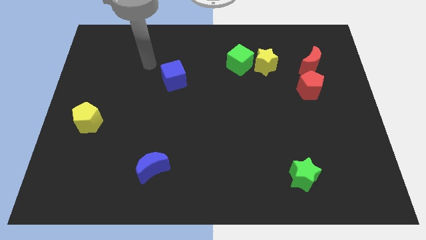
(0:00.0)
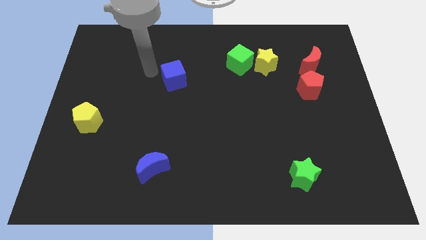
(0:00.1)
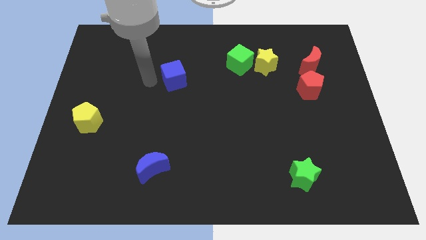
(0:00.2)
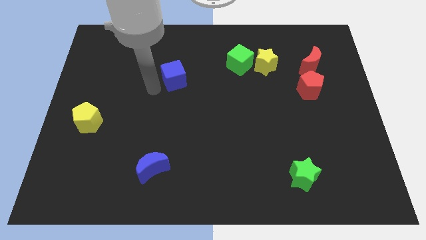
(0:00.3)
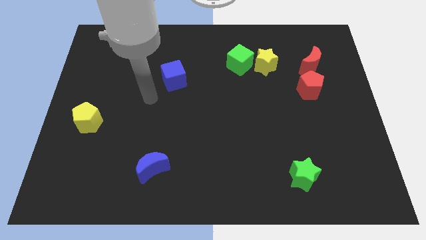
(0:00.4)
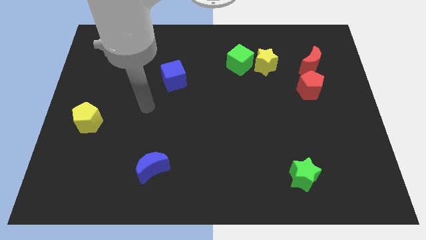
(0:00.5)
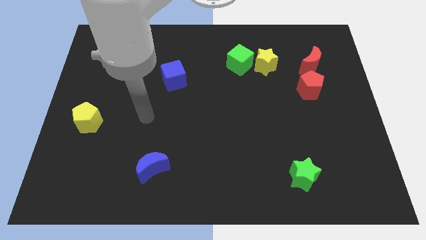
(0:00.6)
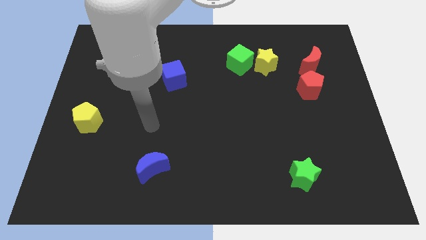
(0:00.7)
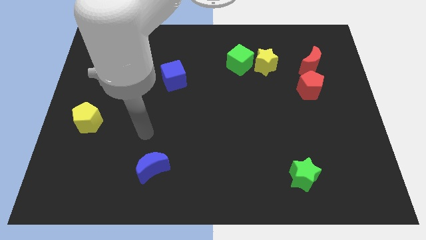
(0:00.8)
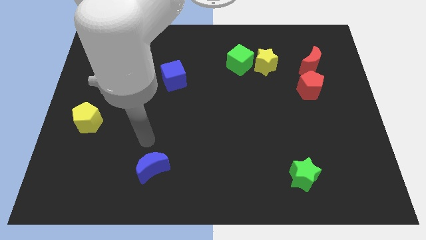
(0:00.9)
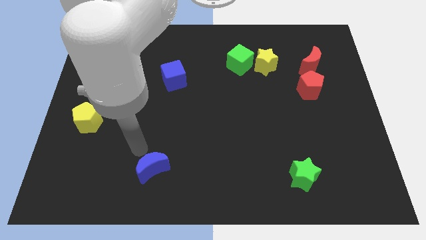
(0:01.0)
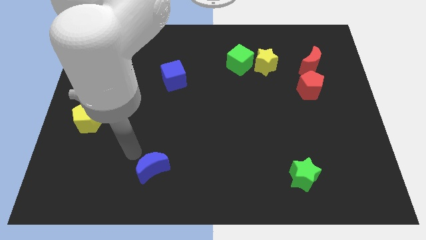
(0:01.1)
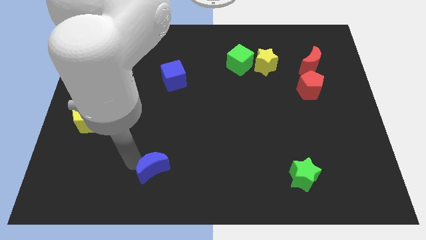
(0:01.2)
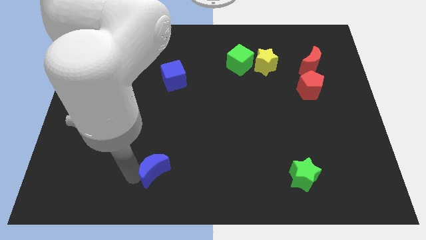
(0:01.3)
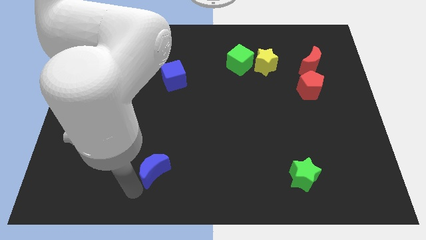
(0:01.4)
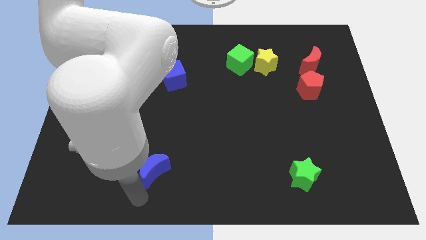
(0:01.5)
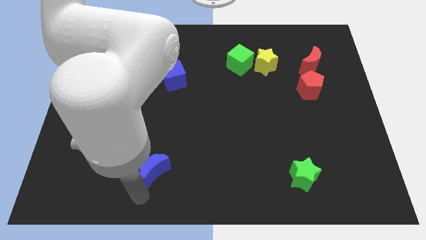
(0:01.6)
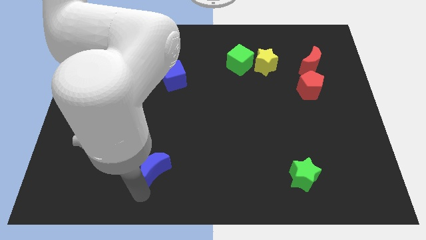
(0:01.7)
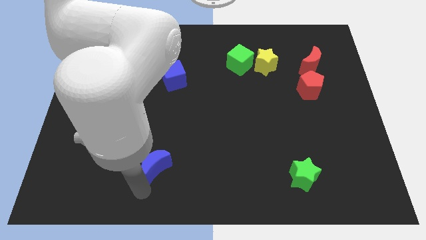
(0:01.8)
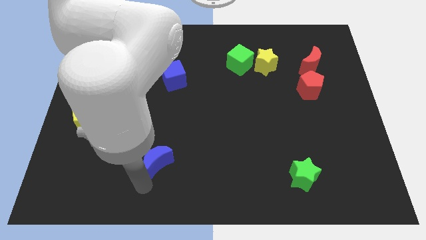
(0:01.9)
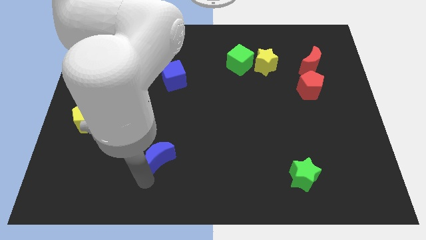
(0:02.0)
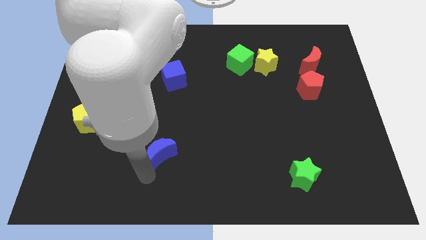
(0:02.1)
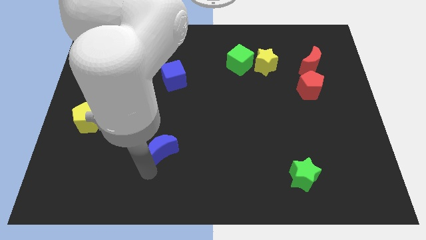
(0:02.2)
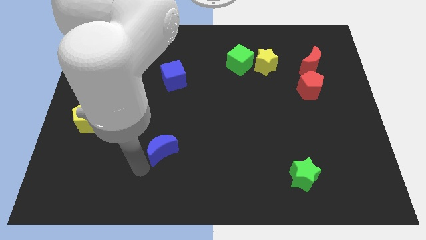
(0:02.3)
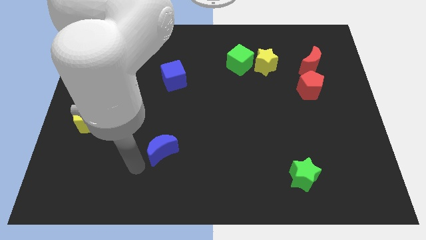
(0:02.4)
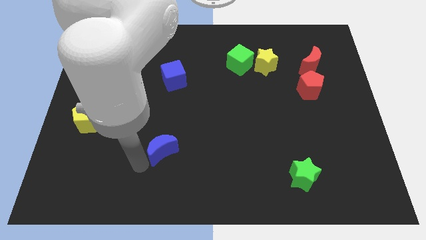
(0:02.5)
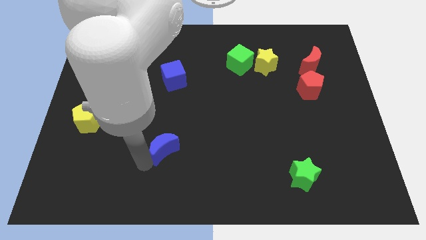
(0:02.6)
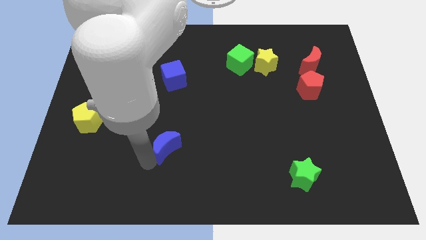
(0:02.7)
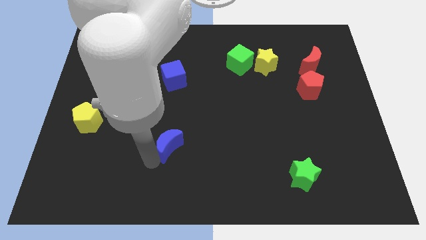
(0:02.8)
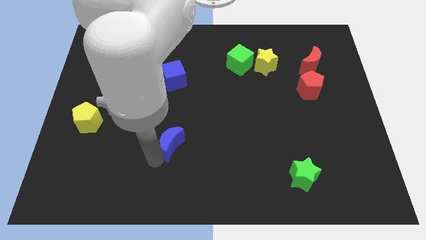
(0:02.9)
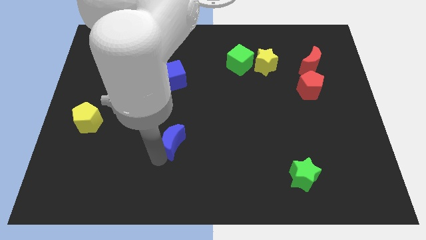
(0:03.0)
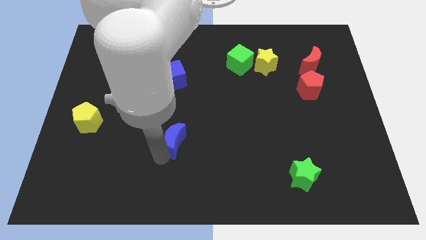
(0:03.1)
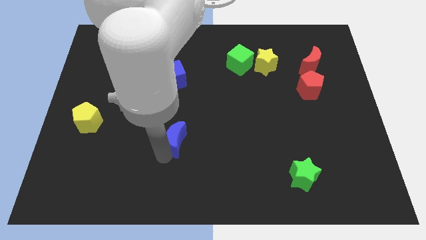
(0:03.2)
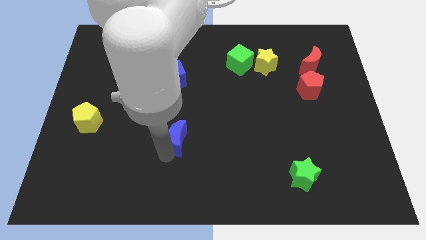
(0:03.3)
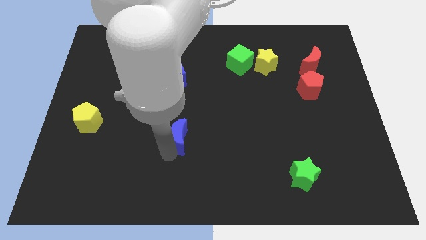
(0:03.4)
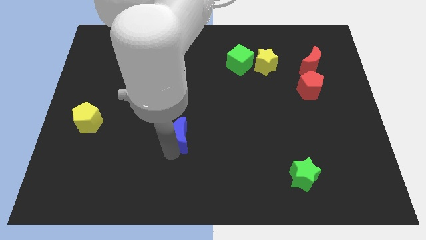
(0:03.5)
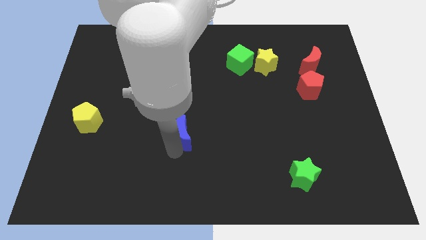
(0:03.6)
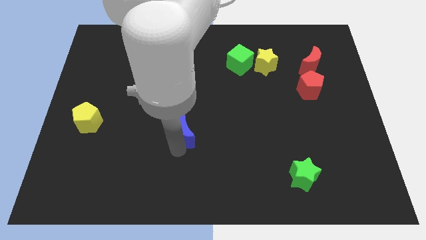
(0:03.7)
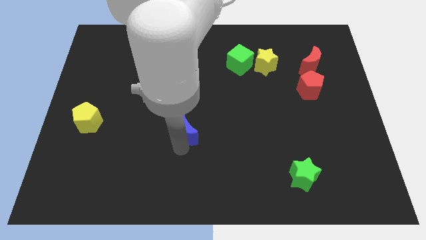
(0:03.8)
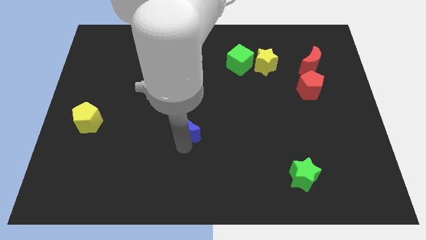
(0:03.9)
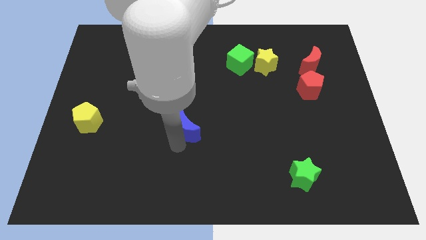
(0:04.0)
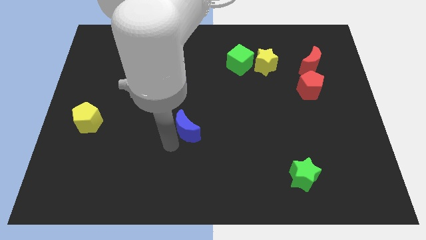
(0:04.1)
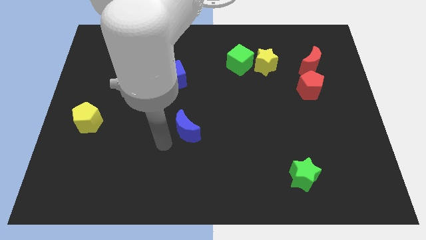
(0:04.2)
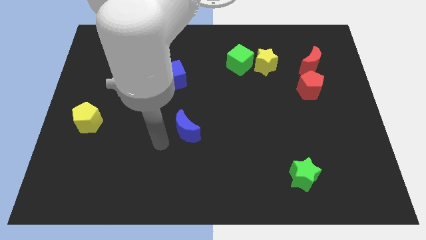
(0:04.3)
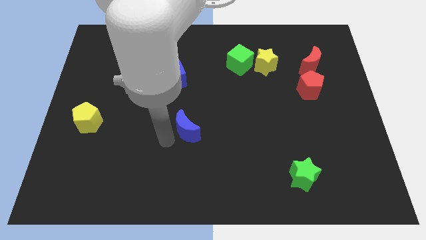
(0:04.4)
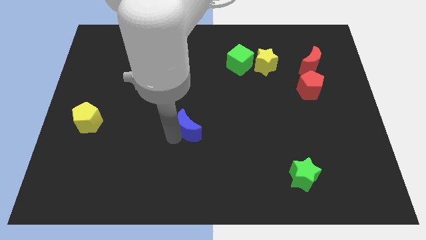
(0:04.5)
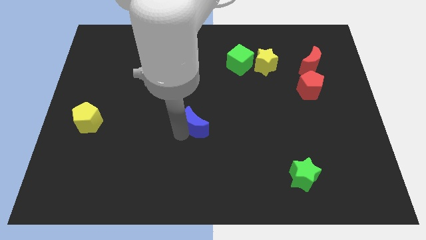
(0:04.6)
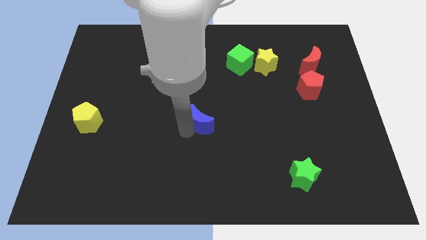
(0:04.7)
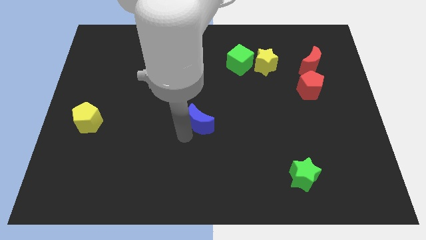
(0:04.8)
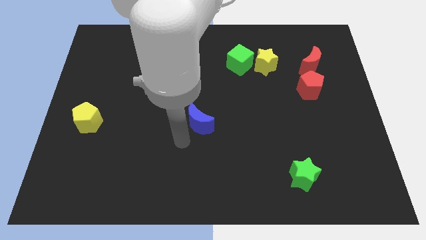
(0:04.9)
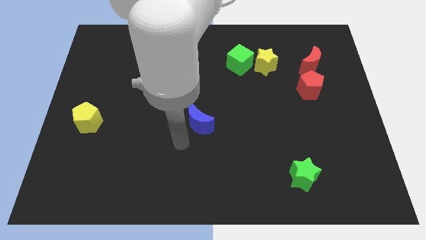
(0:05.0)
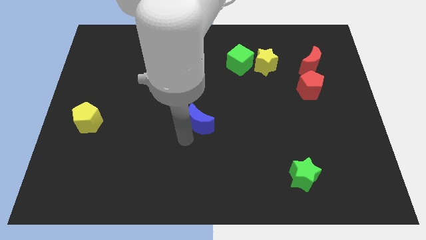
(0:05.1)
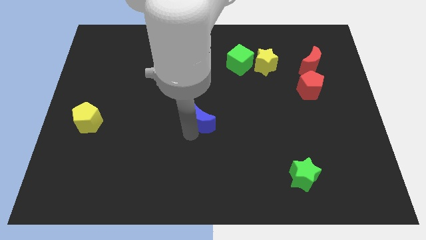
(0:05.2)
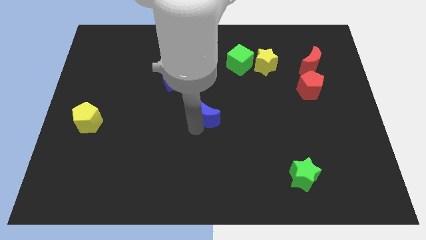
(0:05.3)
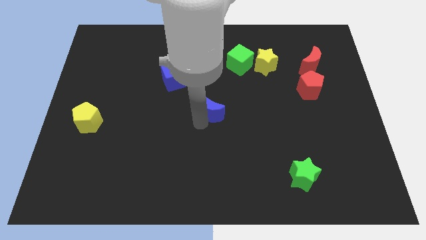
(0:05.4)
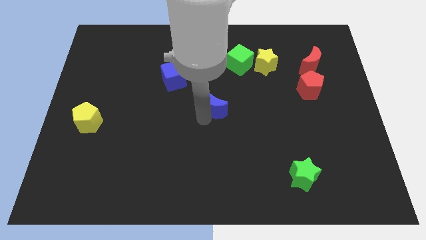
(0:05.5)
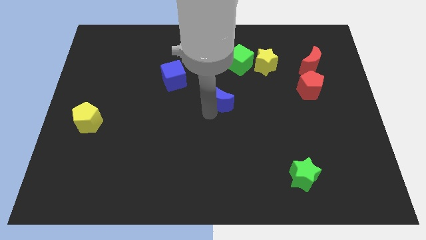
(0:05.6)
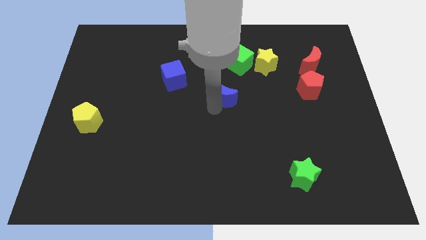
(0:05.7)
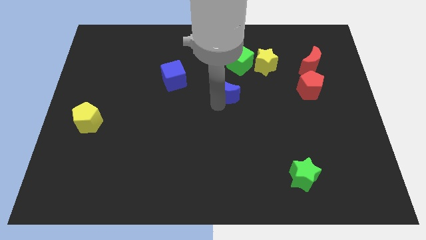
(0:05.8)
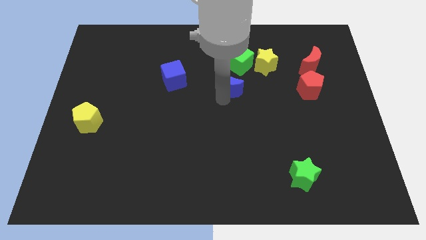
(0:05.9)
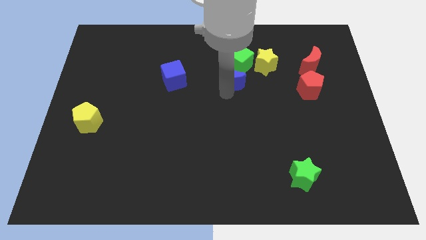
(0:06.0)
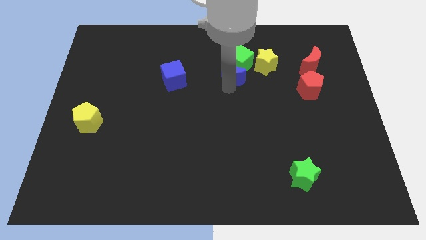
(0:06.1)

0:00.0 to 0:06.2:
push the blue moon to the green cube

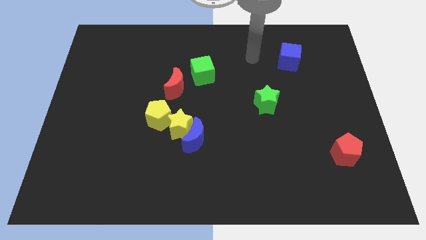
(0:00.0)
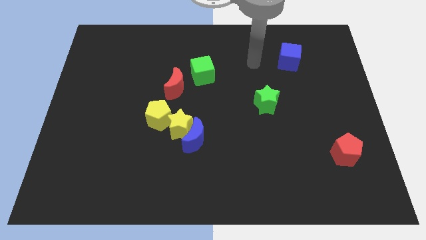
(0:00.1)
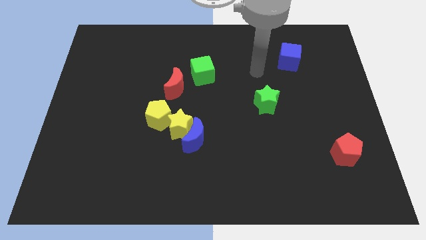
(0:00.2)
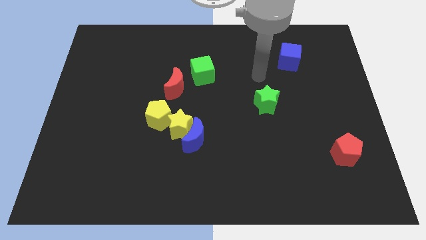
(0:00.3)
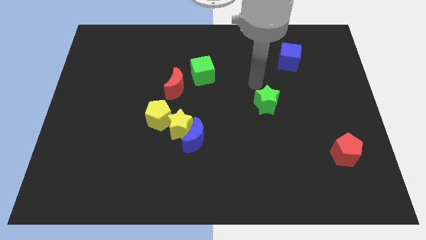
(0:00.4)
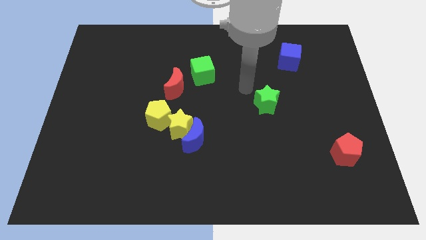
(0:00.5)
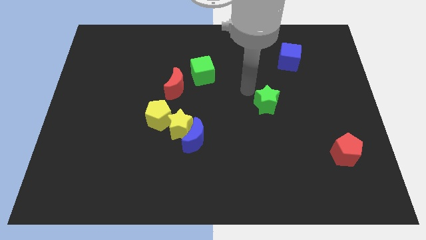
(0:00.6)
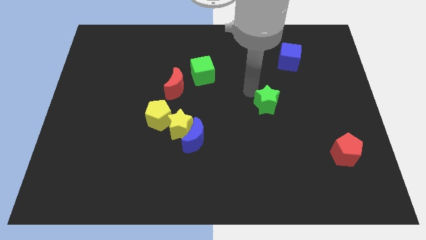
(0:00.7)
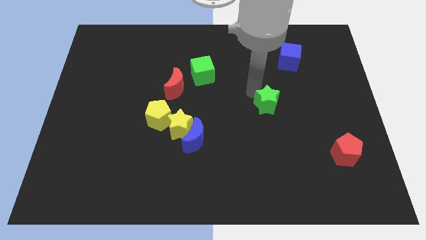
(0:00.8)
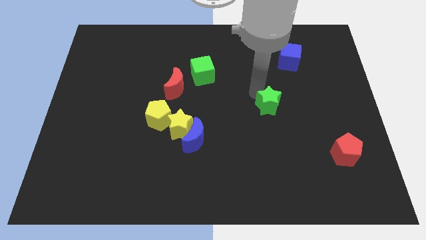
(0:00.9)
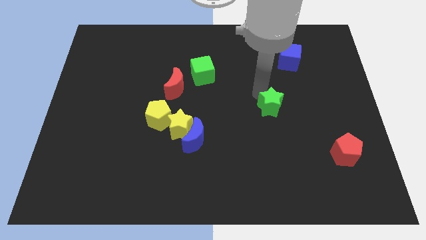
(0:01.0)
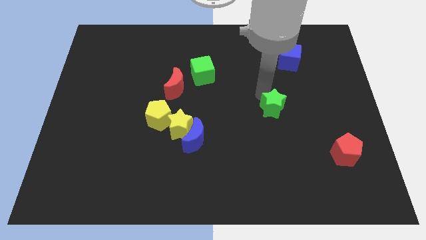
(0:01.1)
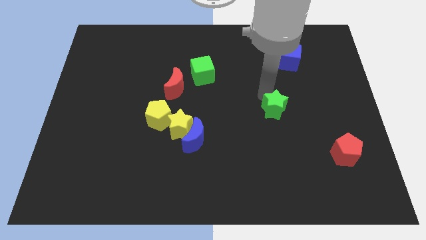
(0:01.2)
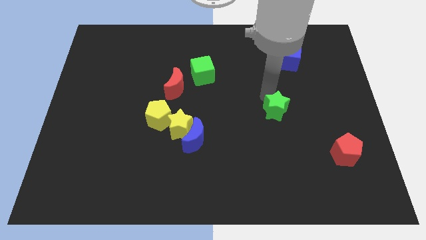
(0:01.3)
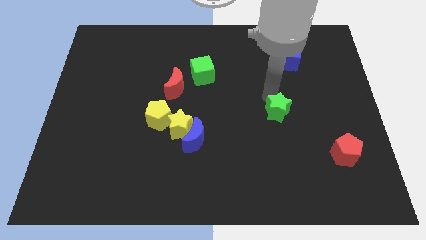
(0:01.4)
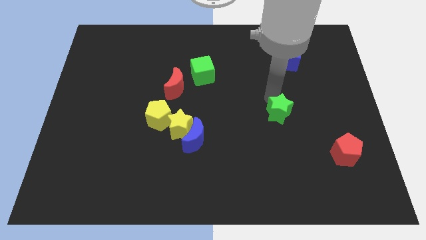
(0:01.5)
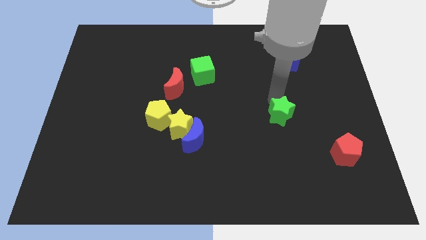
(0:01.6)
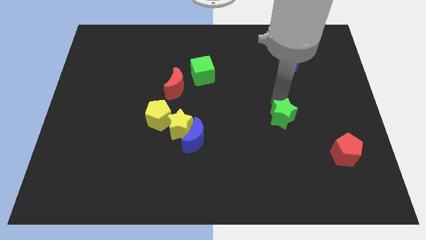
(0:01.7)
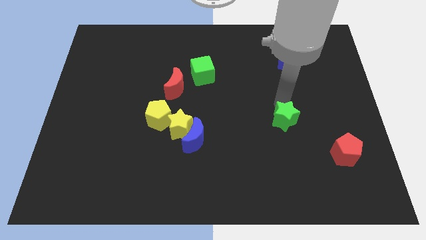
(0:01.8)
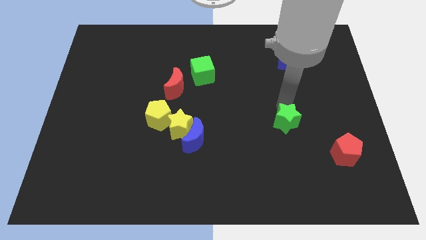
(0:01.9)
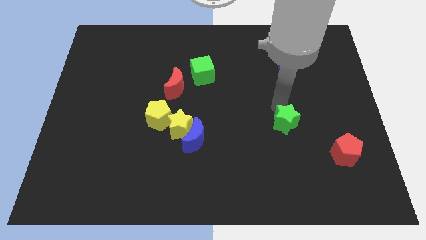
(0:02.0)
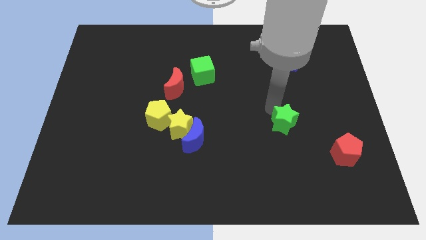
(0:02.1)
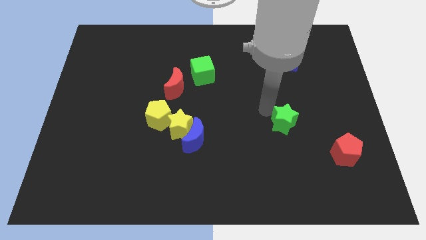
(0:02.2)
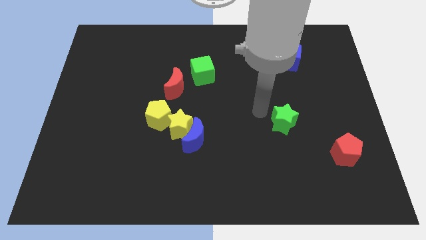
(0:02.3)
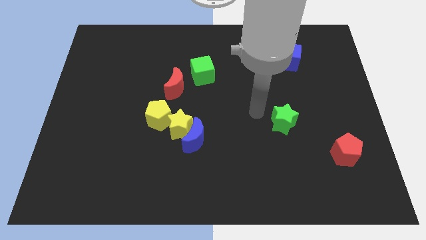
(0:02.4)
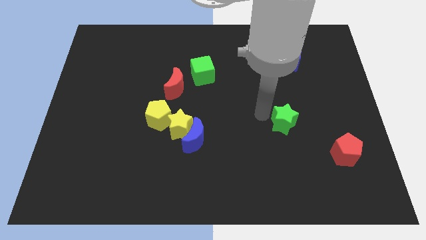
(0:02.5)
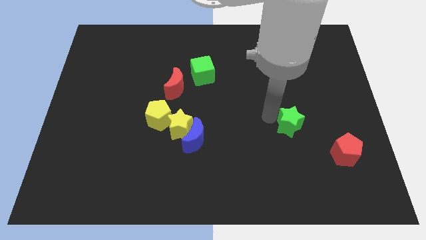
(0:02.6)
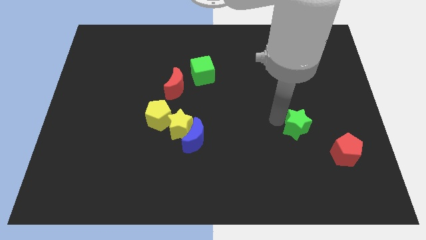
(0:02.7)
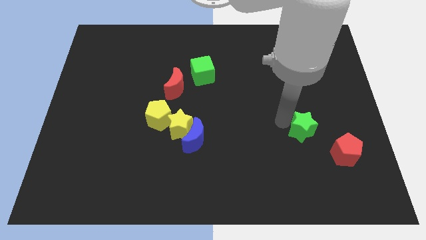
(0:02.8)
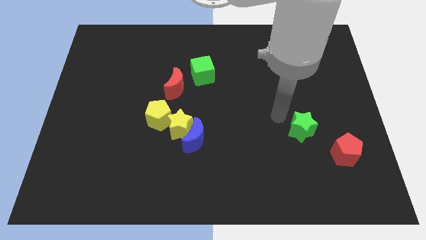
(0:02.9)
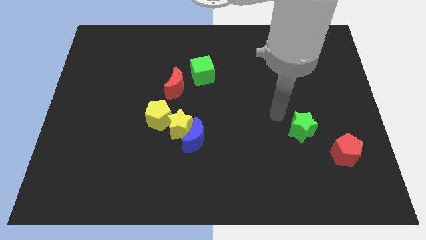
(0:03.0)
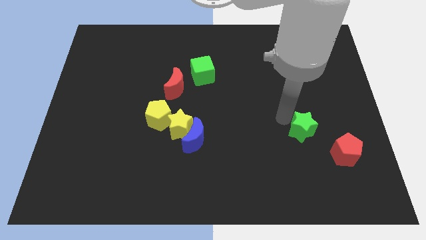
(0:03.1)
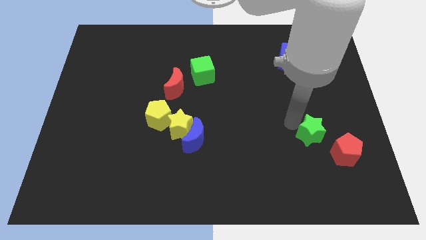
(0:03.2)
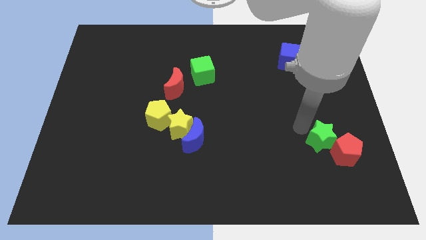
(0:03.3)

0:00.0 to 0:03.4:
push the green star next to the red pentagon
